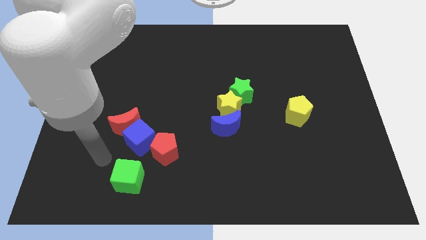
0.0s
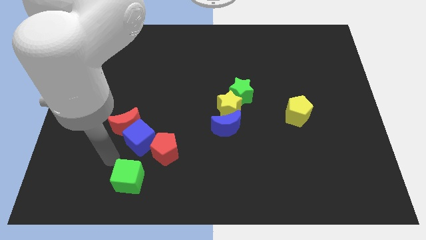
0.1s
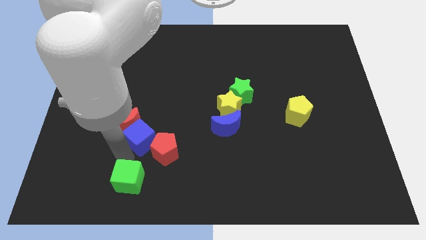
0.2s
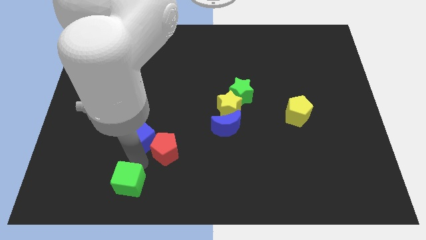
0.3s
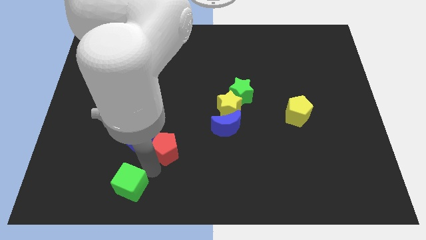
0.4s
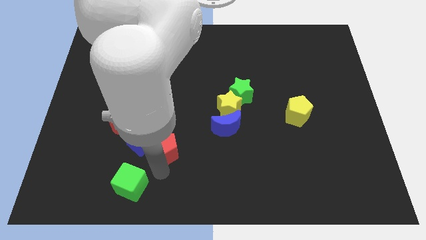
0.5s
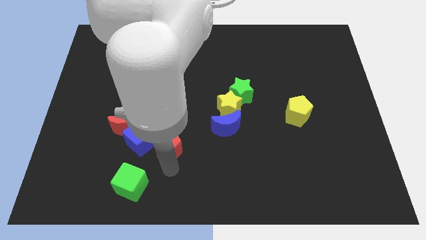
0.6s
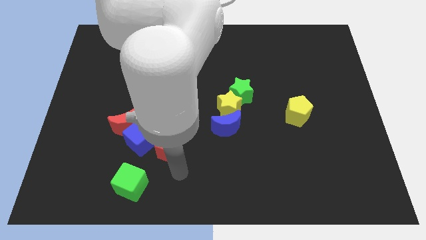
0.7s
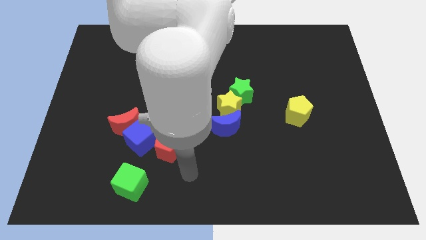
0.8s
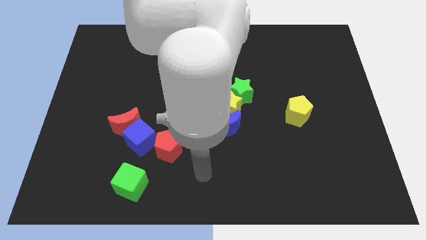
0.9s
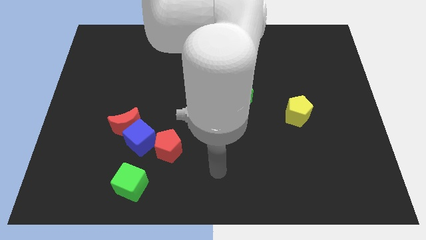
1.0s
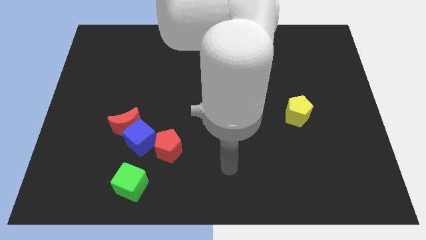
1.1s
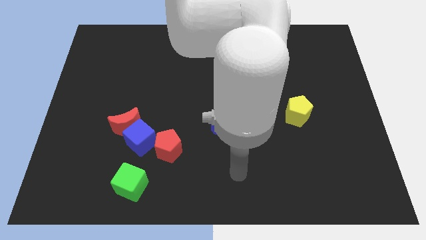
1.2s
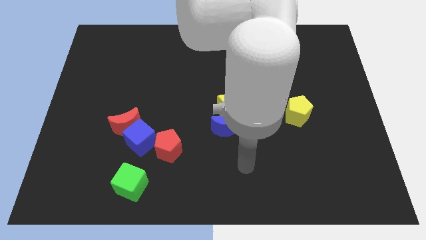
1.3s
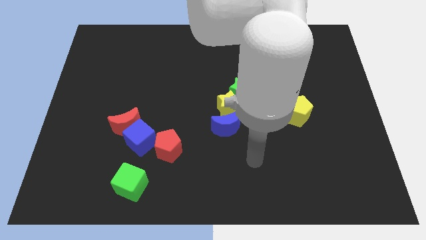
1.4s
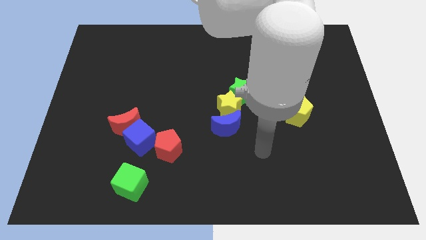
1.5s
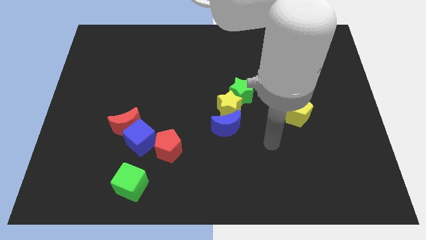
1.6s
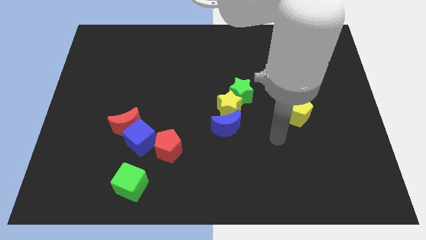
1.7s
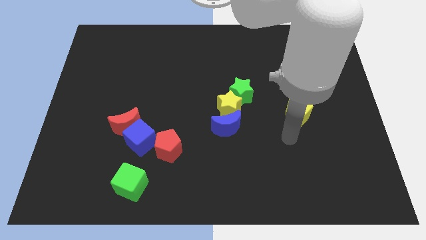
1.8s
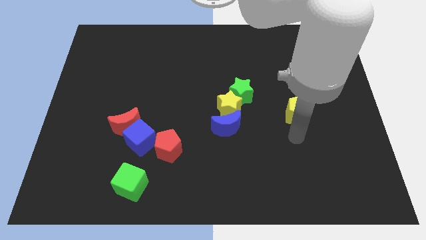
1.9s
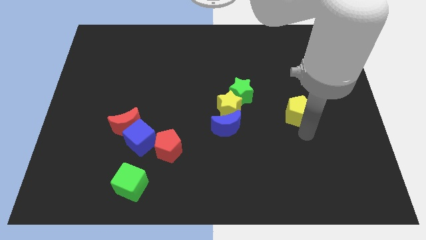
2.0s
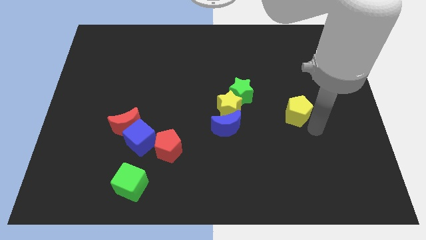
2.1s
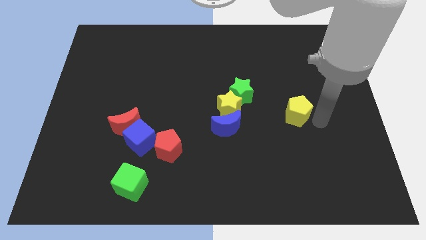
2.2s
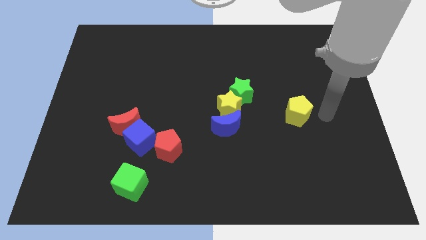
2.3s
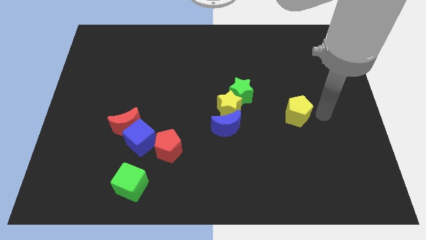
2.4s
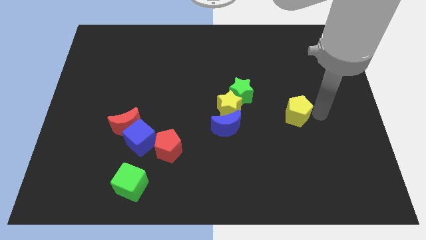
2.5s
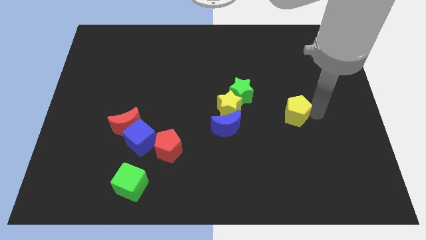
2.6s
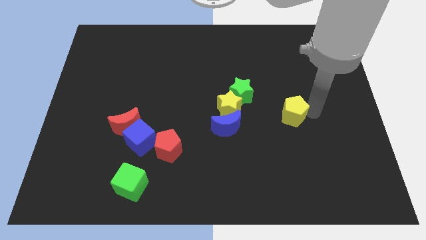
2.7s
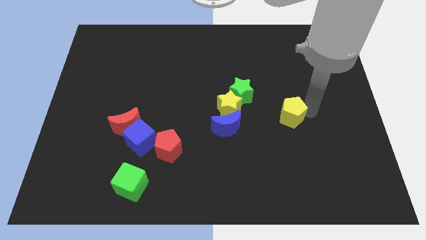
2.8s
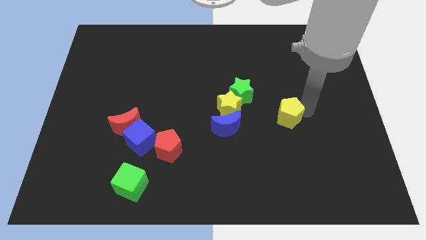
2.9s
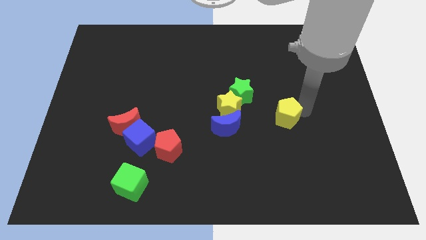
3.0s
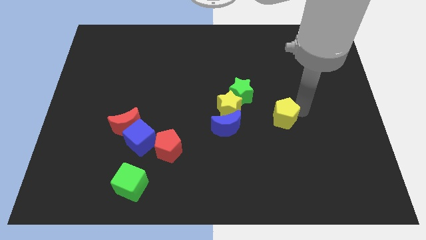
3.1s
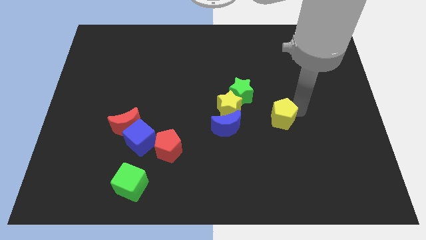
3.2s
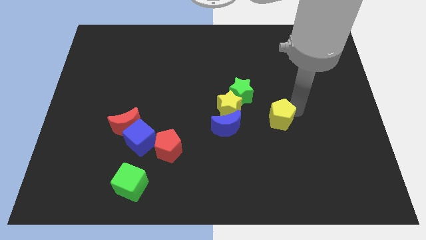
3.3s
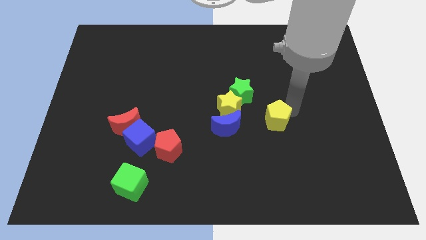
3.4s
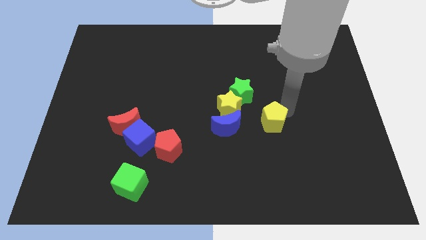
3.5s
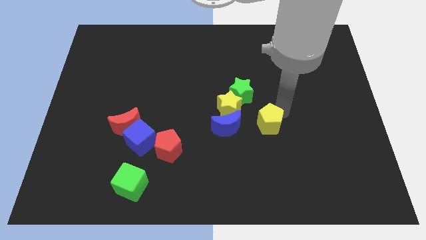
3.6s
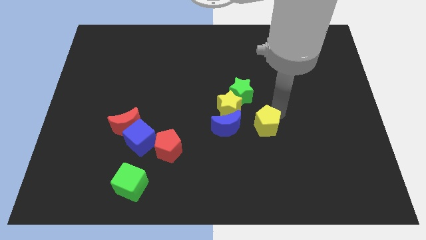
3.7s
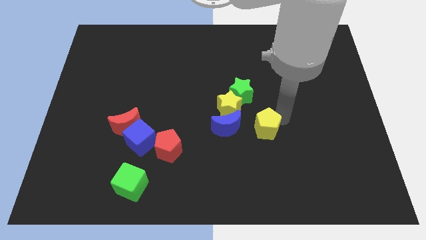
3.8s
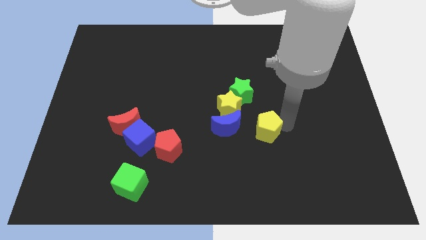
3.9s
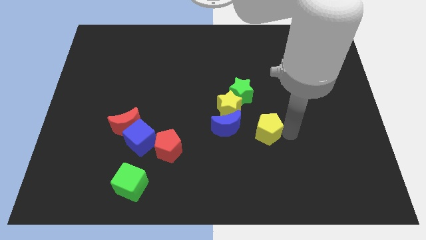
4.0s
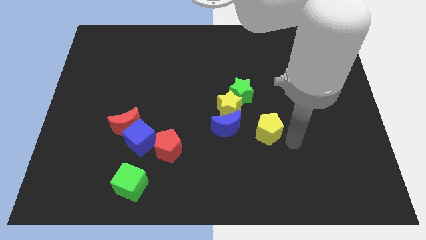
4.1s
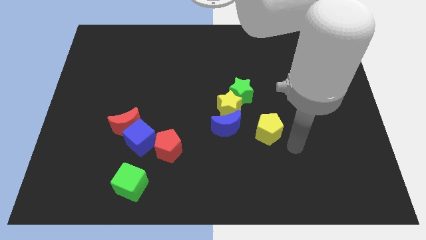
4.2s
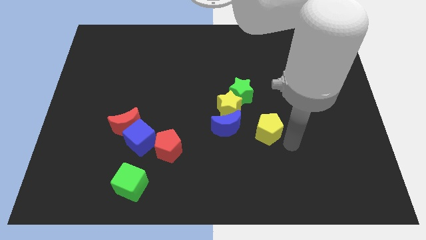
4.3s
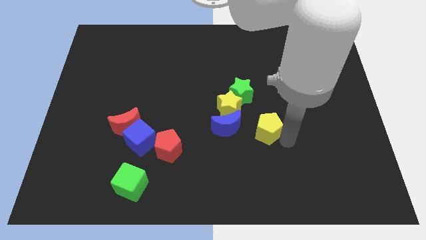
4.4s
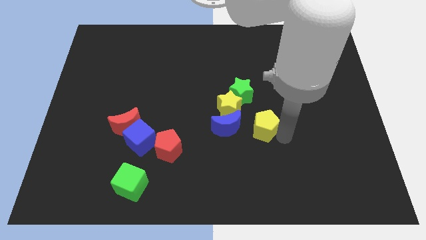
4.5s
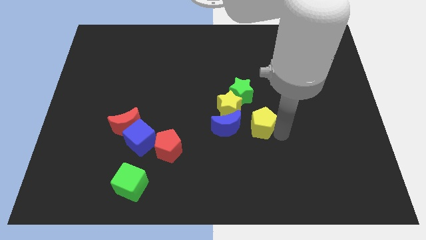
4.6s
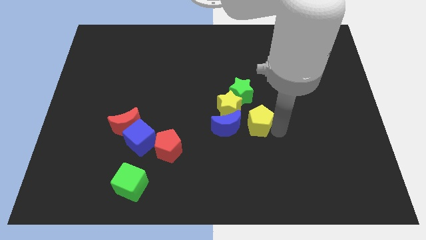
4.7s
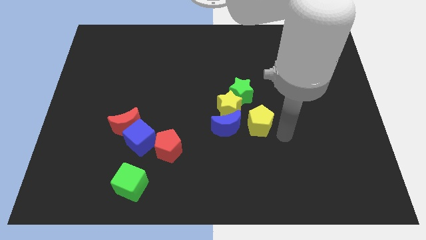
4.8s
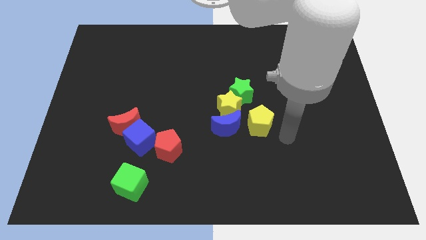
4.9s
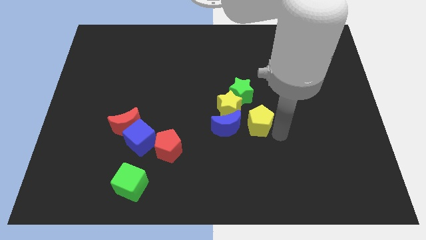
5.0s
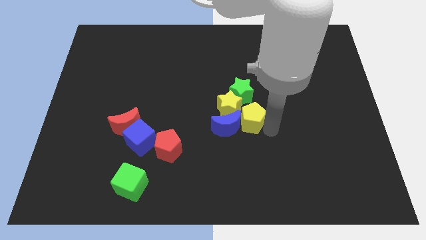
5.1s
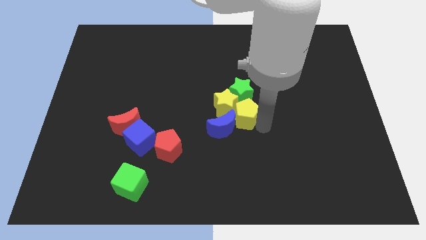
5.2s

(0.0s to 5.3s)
push the yellow pentagon towards the yellow star

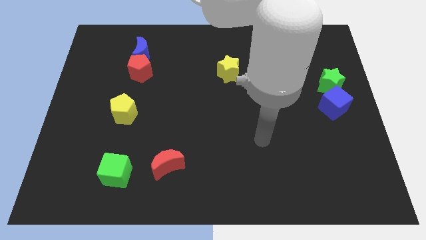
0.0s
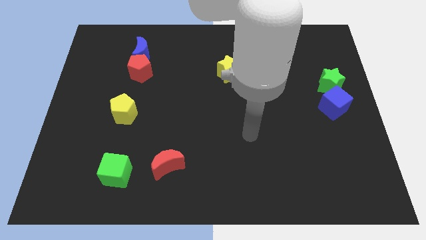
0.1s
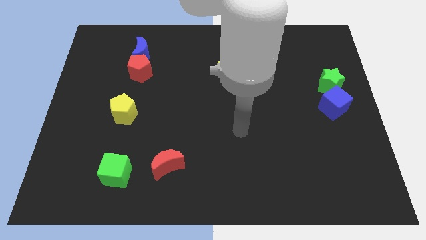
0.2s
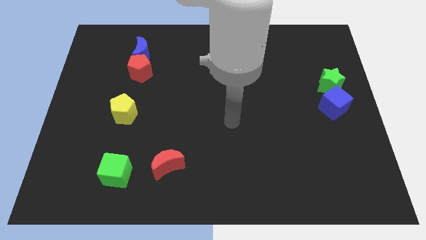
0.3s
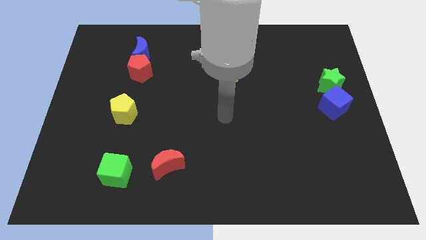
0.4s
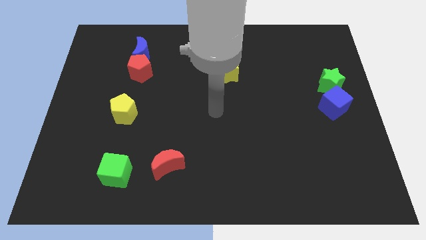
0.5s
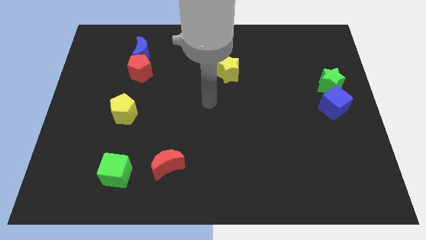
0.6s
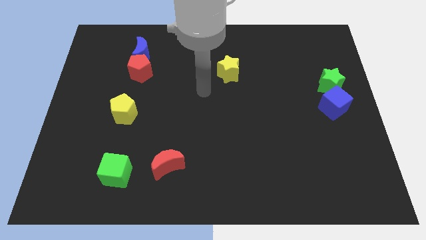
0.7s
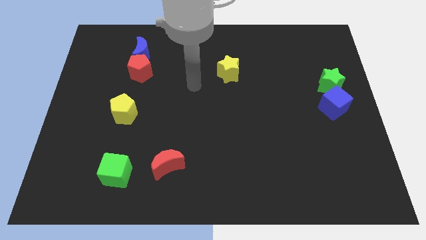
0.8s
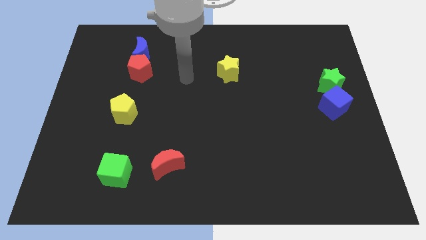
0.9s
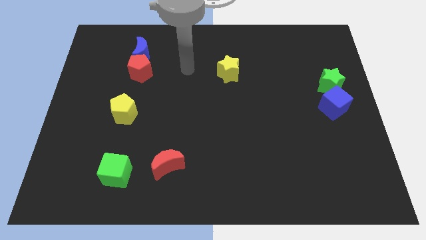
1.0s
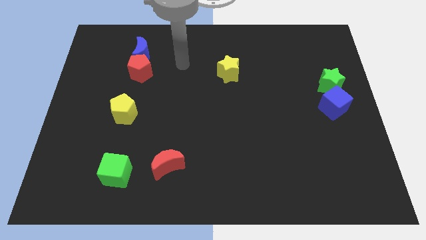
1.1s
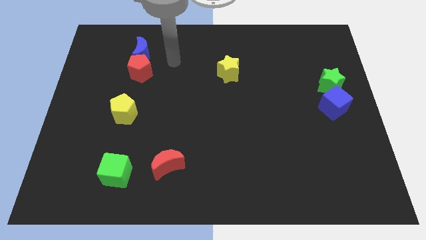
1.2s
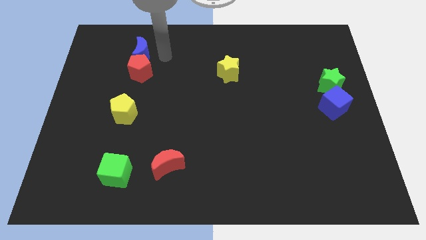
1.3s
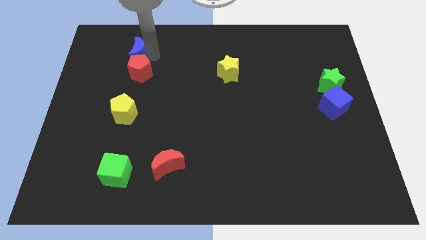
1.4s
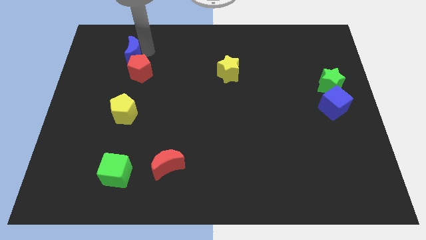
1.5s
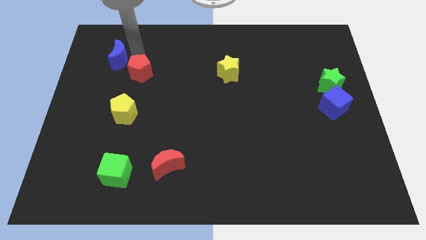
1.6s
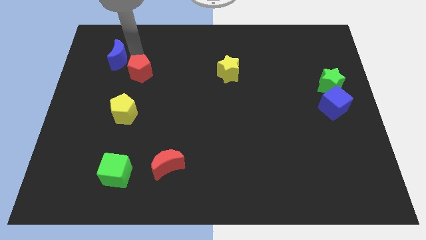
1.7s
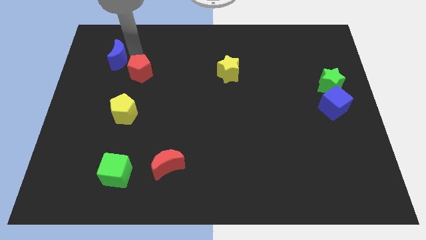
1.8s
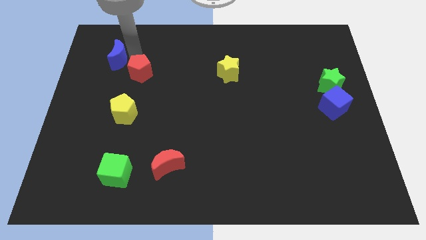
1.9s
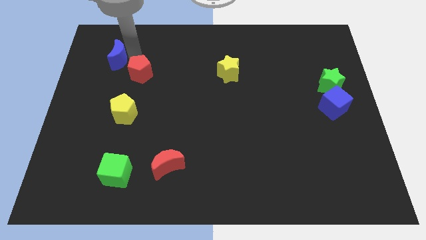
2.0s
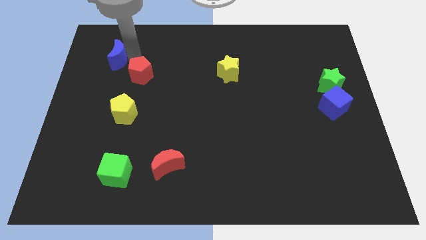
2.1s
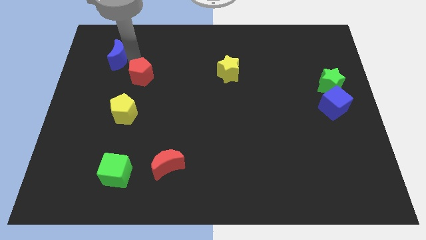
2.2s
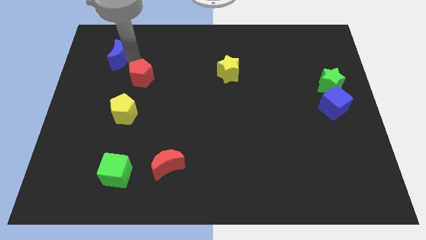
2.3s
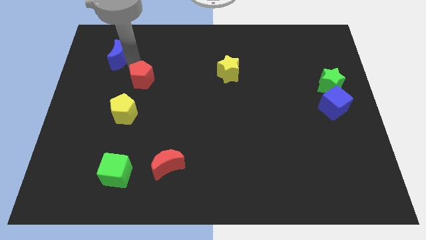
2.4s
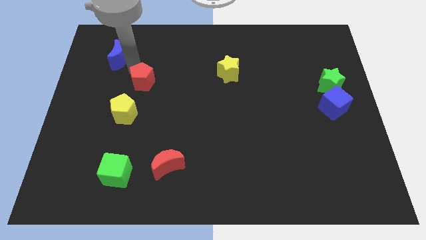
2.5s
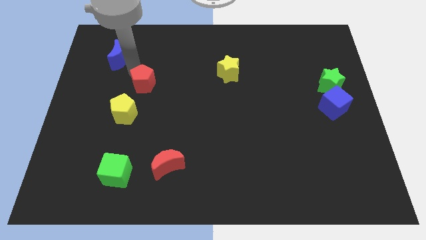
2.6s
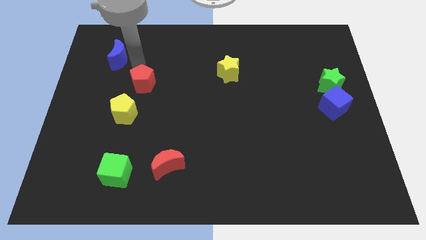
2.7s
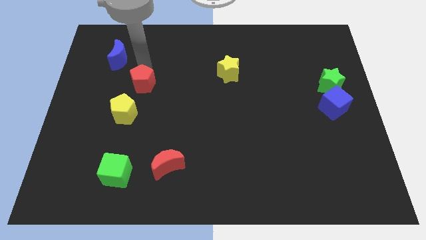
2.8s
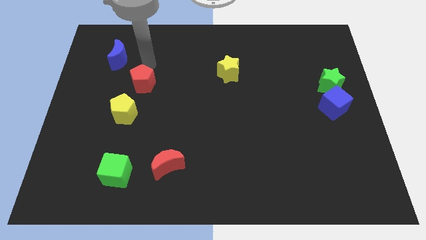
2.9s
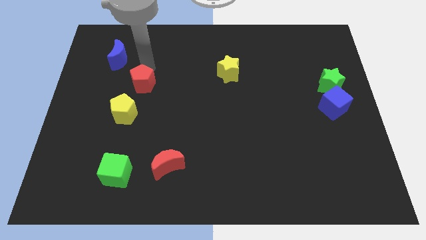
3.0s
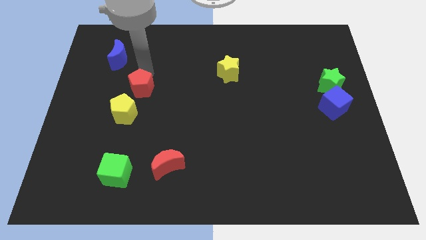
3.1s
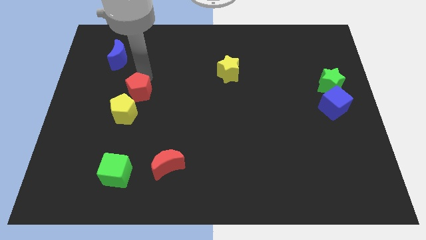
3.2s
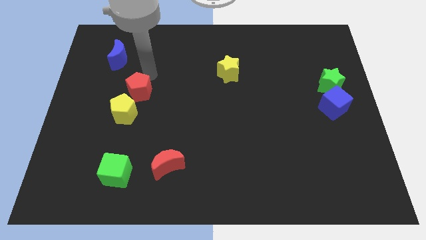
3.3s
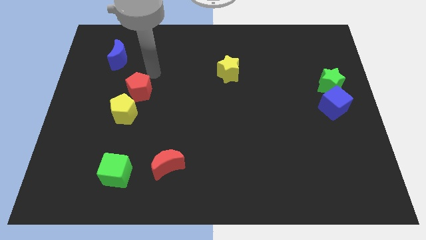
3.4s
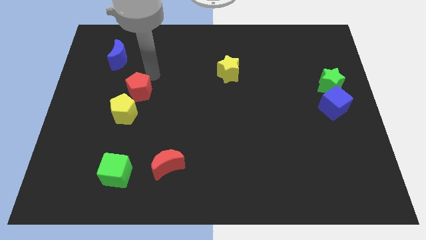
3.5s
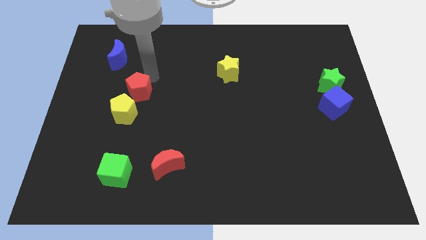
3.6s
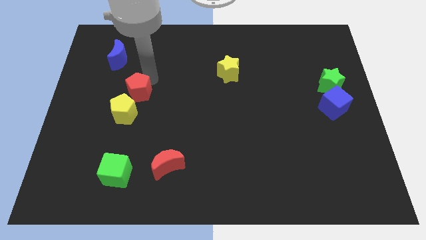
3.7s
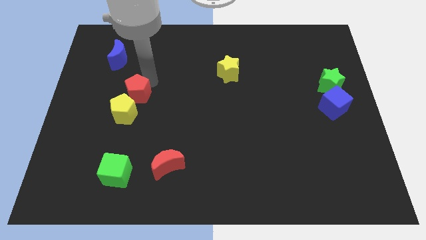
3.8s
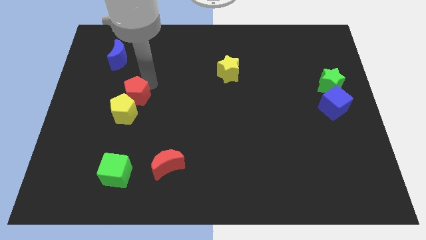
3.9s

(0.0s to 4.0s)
put the red pentagon close to the yellow pentagon
